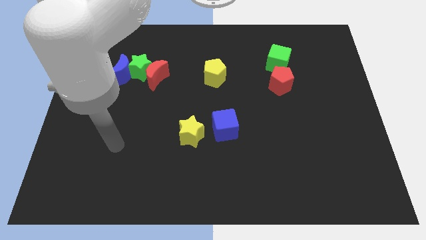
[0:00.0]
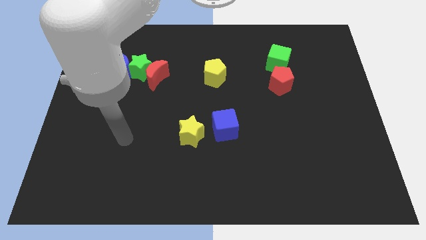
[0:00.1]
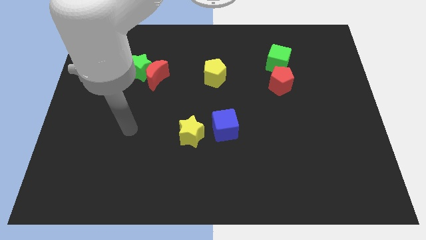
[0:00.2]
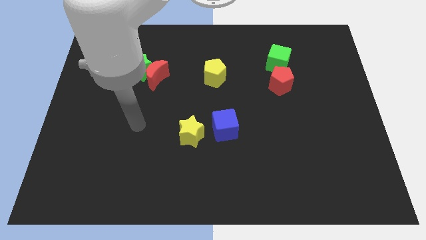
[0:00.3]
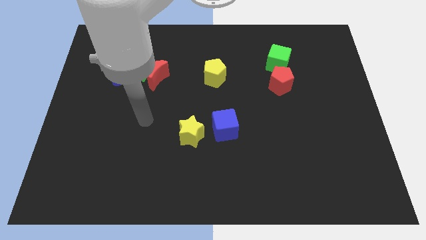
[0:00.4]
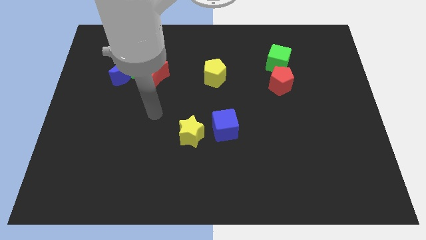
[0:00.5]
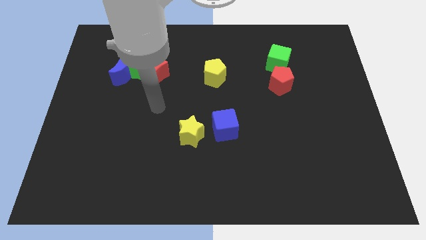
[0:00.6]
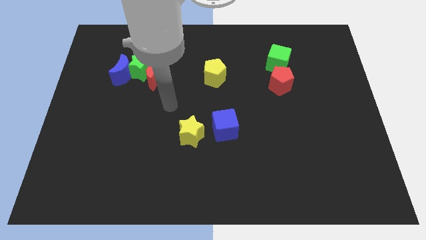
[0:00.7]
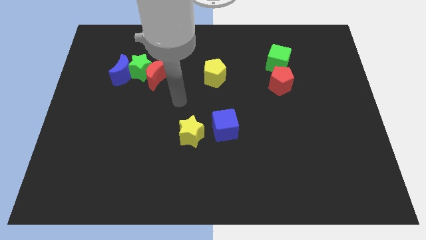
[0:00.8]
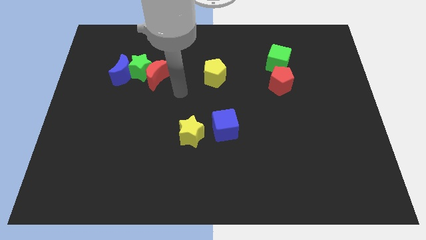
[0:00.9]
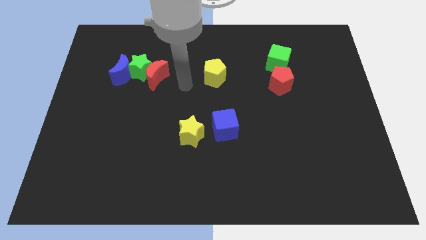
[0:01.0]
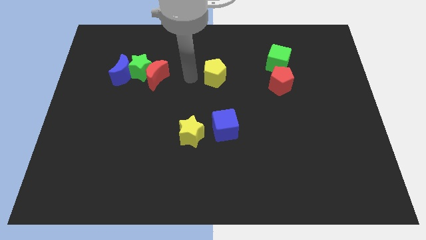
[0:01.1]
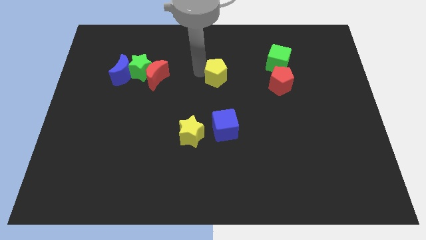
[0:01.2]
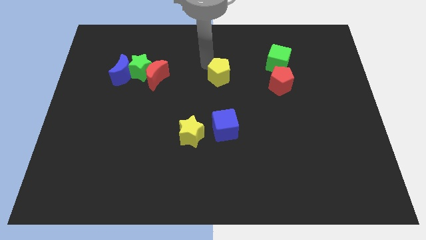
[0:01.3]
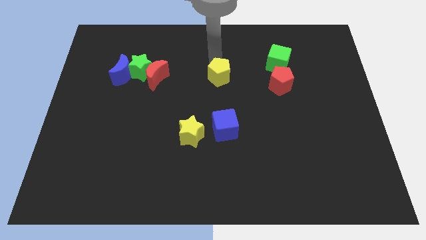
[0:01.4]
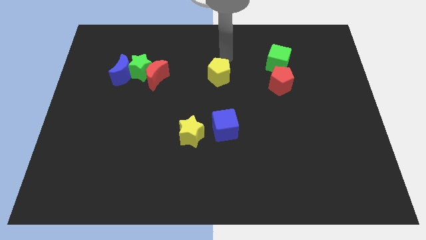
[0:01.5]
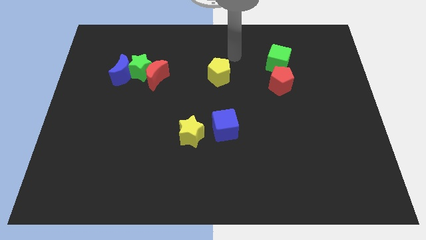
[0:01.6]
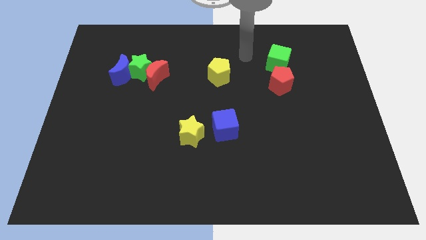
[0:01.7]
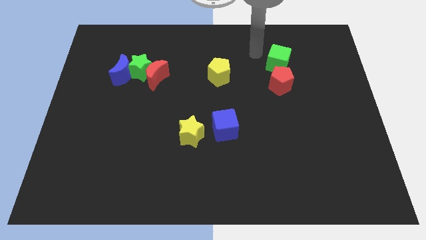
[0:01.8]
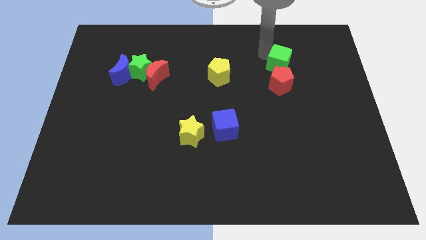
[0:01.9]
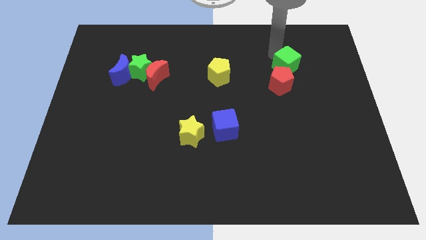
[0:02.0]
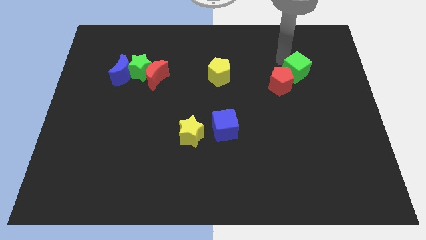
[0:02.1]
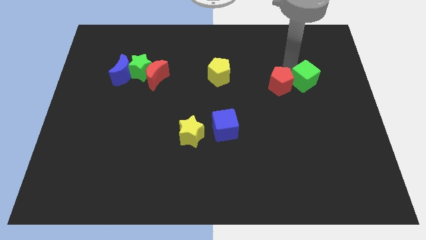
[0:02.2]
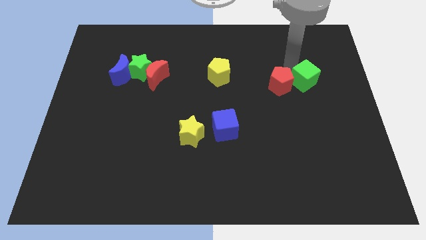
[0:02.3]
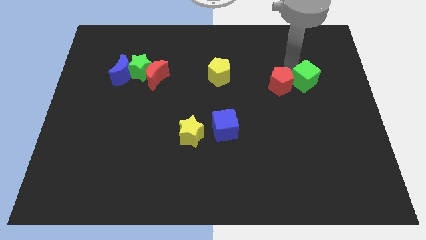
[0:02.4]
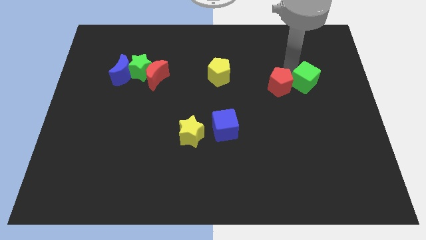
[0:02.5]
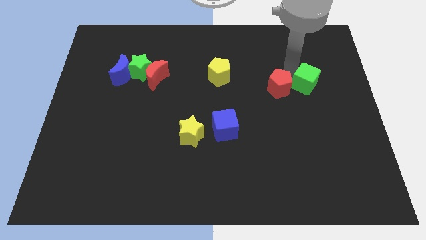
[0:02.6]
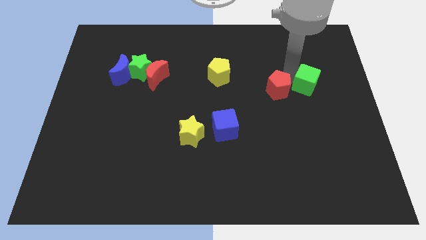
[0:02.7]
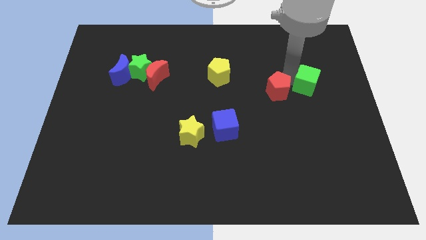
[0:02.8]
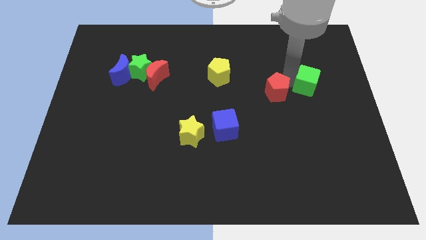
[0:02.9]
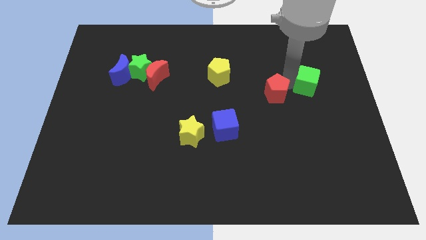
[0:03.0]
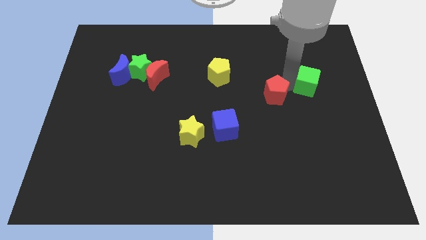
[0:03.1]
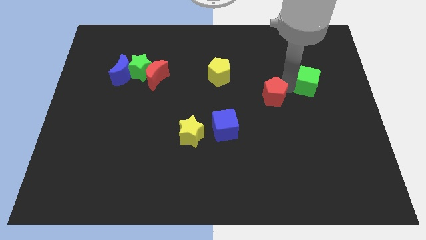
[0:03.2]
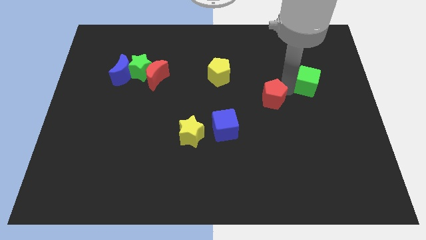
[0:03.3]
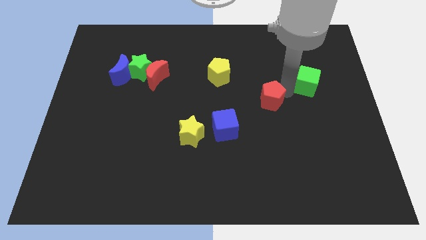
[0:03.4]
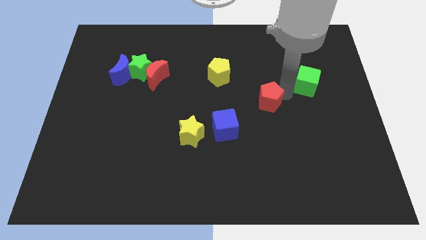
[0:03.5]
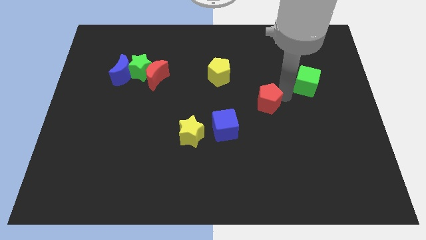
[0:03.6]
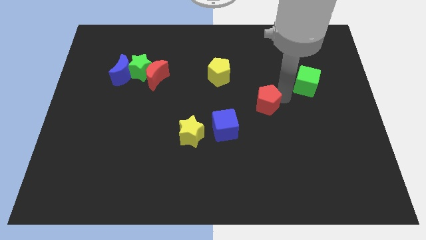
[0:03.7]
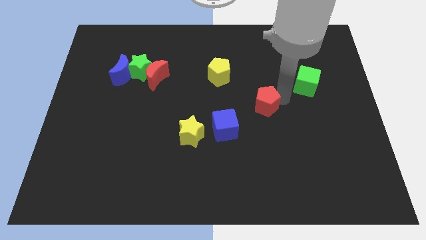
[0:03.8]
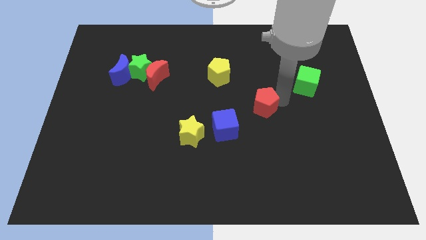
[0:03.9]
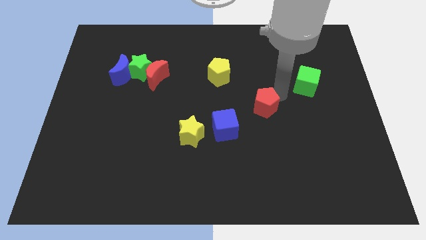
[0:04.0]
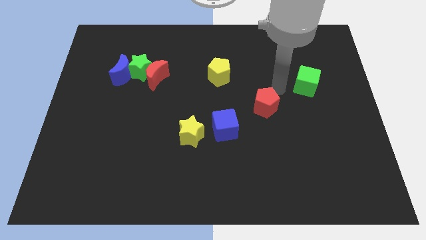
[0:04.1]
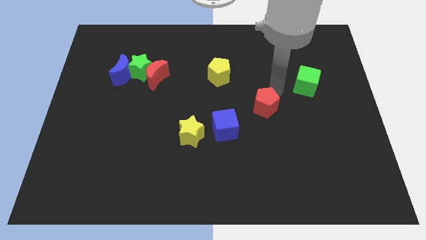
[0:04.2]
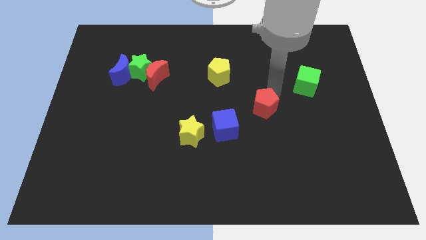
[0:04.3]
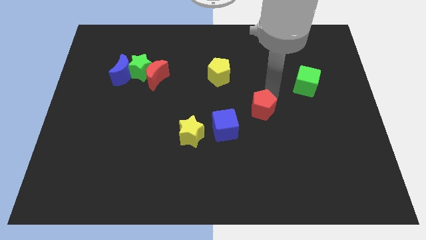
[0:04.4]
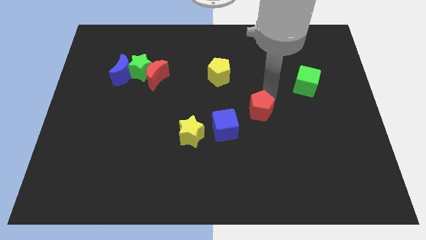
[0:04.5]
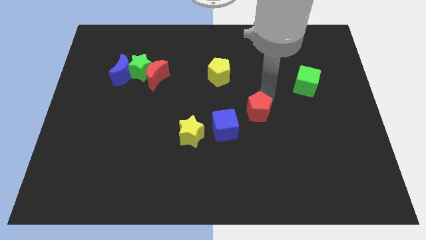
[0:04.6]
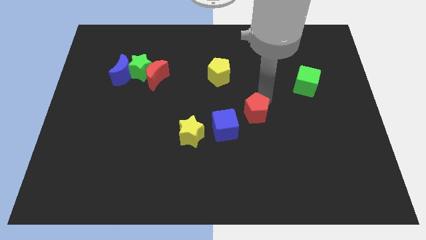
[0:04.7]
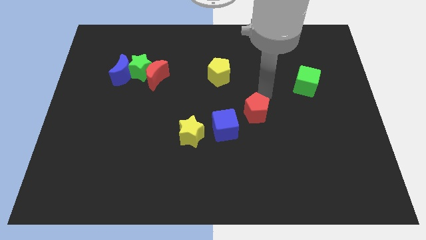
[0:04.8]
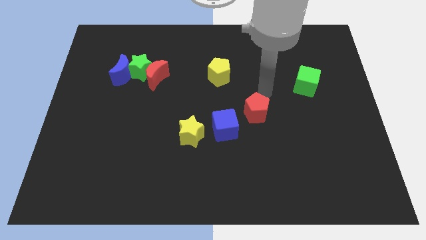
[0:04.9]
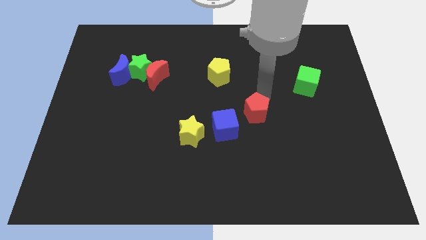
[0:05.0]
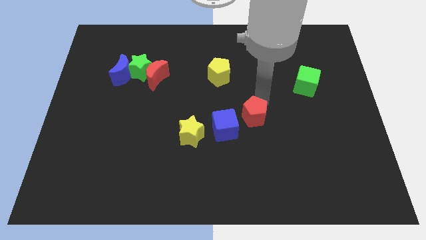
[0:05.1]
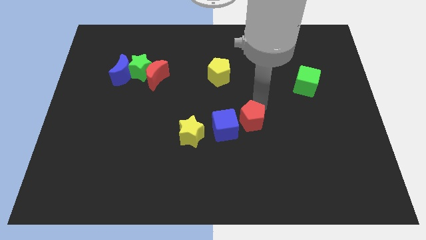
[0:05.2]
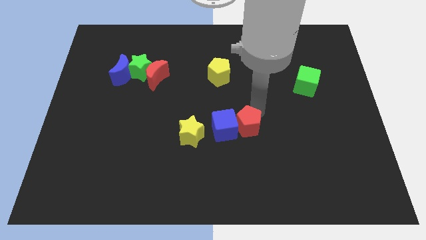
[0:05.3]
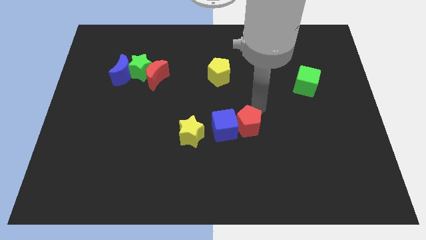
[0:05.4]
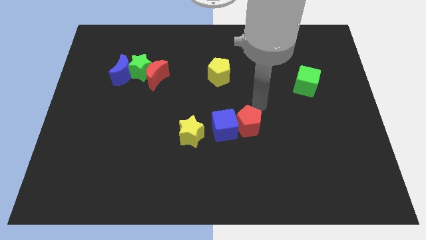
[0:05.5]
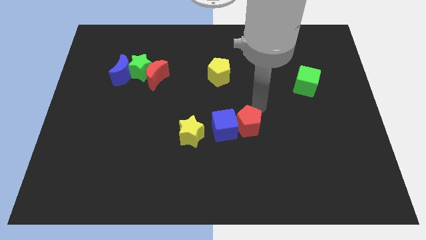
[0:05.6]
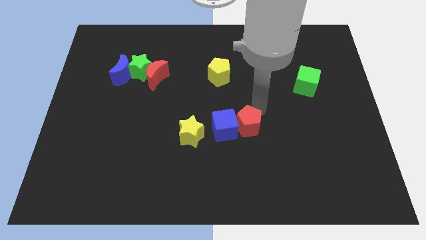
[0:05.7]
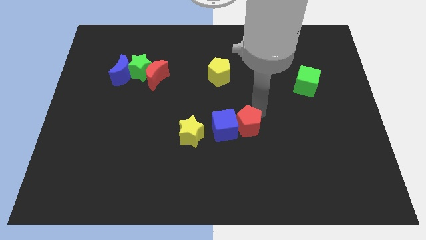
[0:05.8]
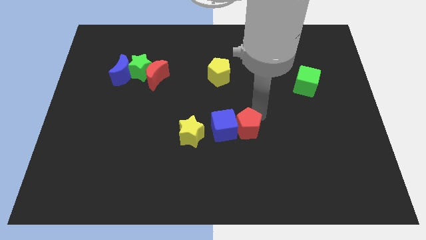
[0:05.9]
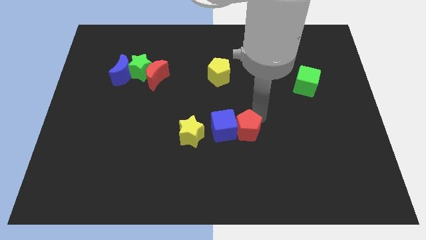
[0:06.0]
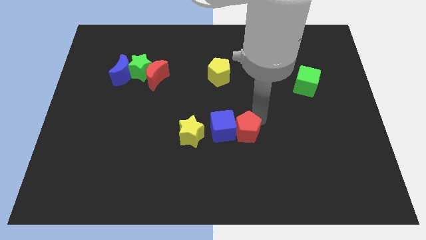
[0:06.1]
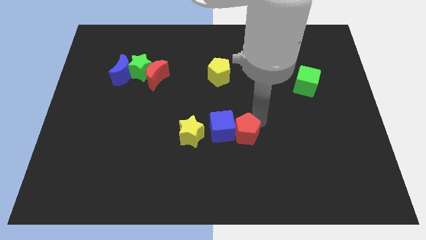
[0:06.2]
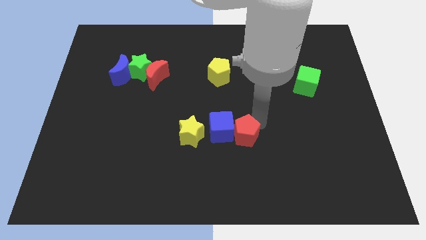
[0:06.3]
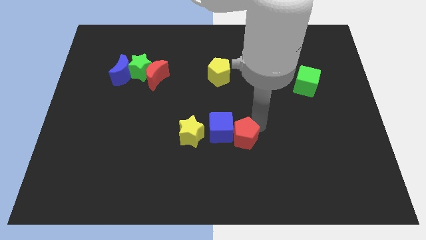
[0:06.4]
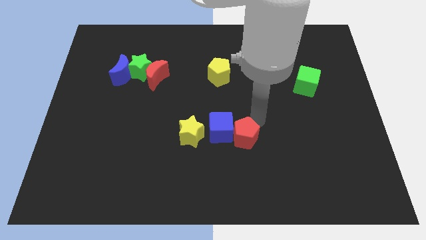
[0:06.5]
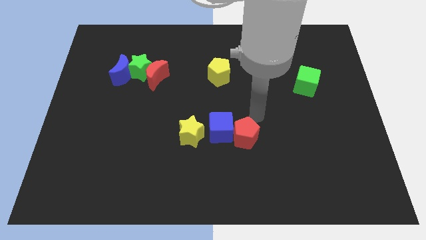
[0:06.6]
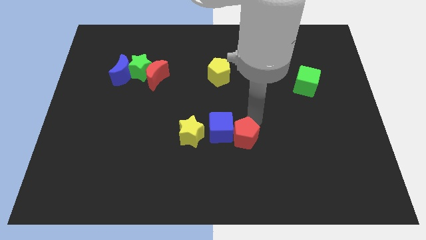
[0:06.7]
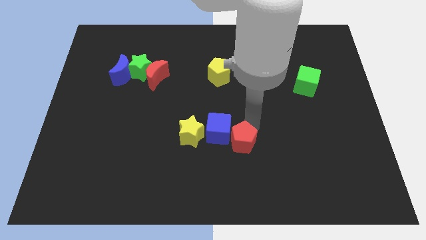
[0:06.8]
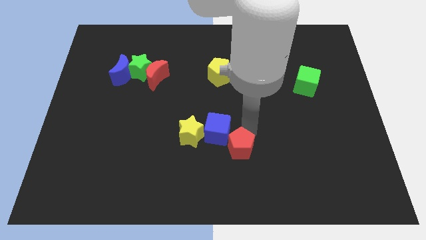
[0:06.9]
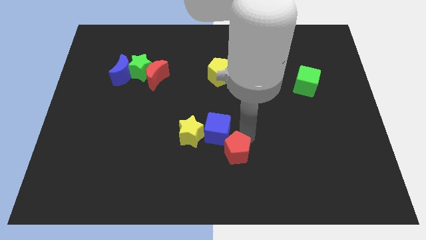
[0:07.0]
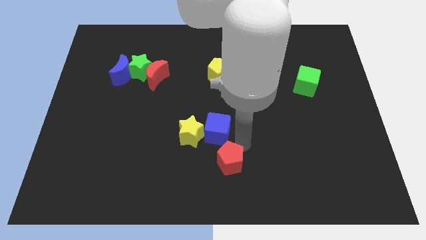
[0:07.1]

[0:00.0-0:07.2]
move the red pentagon to the bottom
